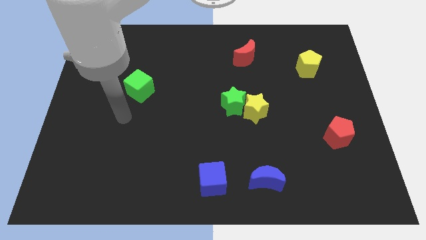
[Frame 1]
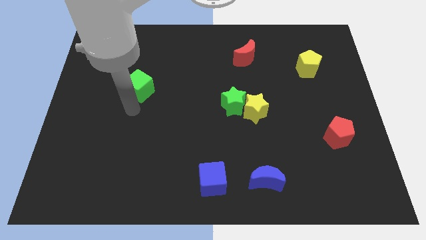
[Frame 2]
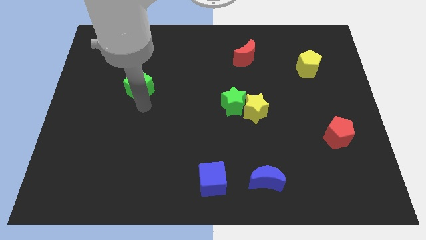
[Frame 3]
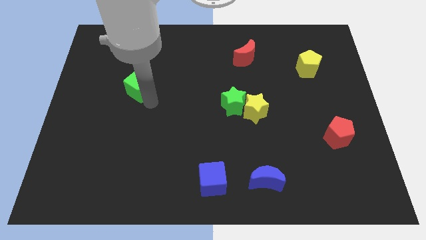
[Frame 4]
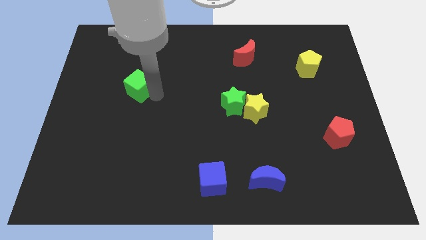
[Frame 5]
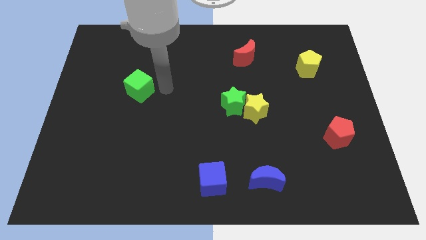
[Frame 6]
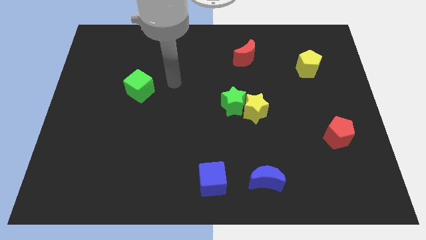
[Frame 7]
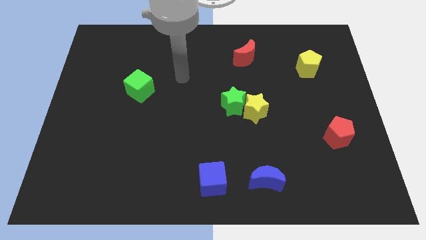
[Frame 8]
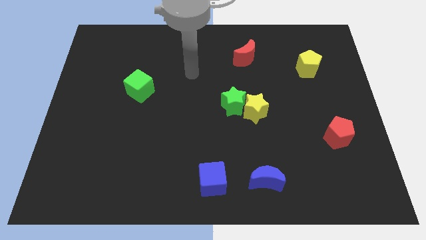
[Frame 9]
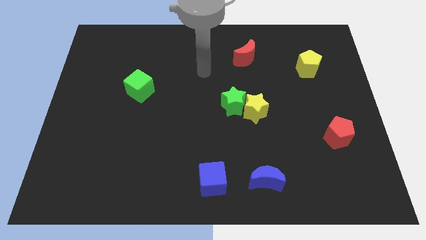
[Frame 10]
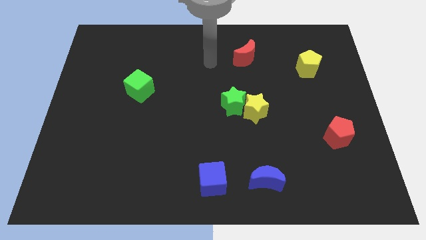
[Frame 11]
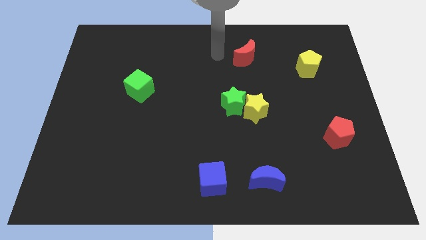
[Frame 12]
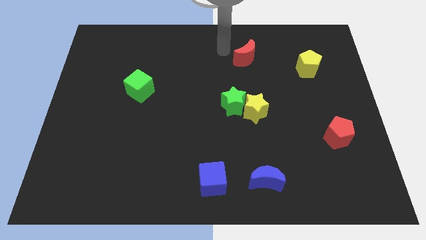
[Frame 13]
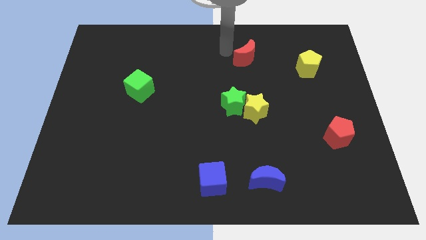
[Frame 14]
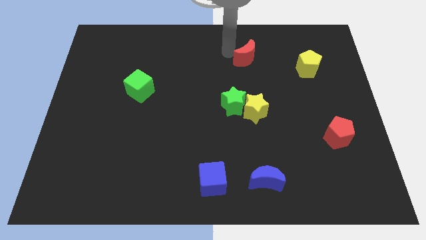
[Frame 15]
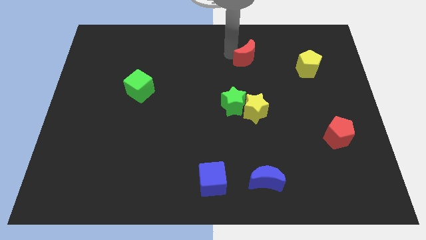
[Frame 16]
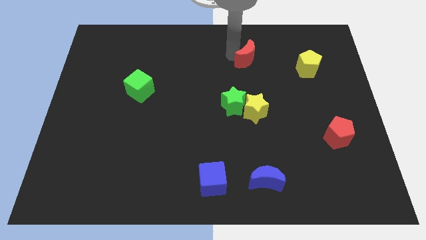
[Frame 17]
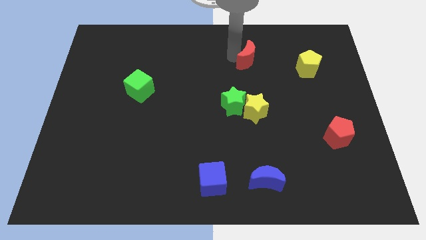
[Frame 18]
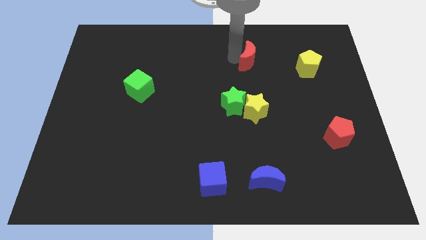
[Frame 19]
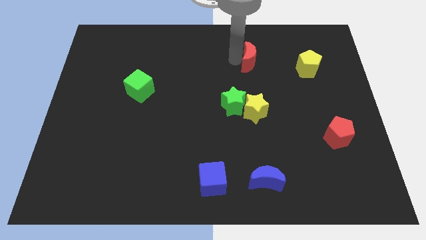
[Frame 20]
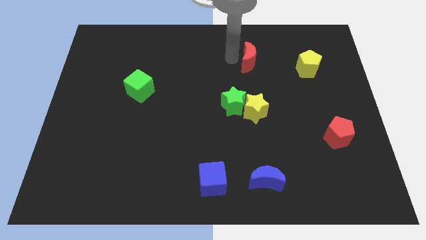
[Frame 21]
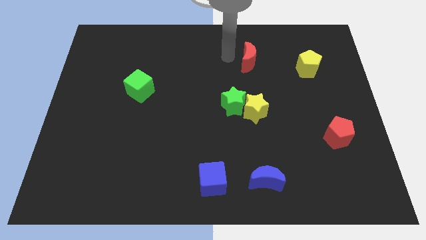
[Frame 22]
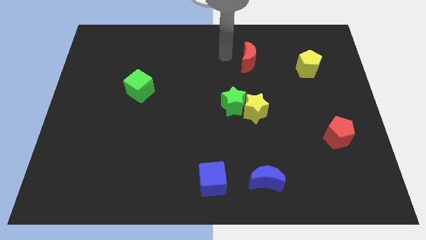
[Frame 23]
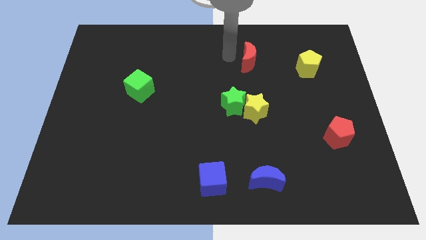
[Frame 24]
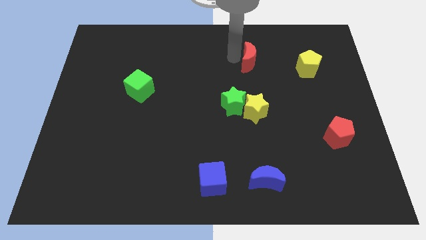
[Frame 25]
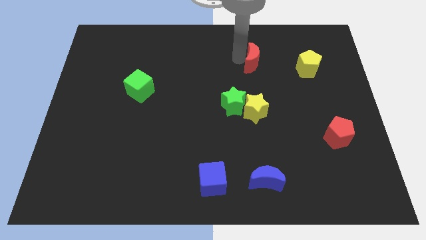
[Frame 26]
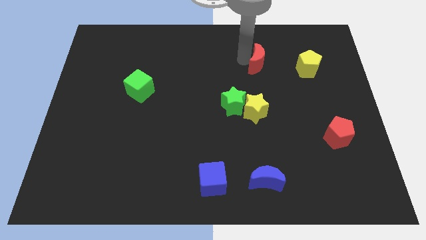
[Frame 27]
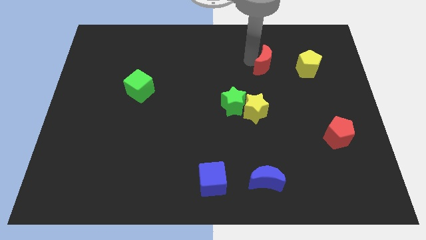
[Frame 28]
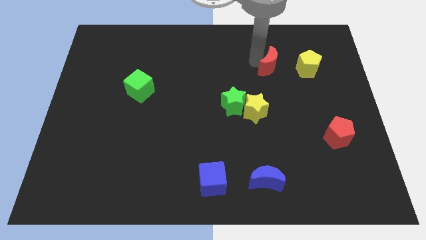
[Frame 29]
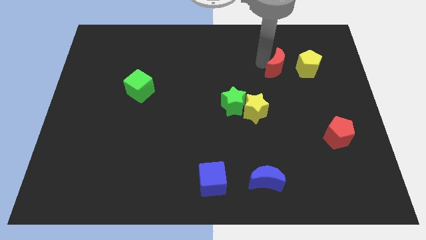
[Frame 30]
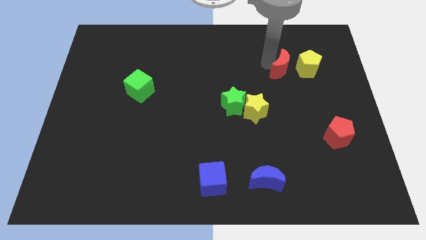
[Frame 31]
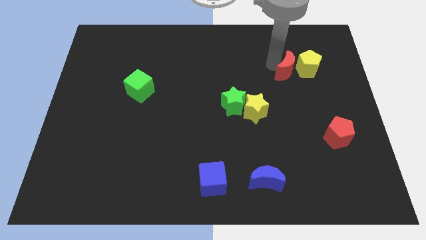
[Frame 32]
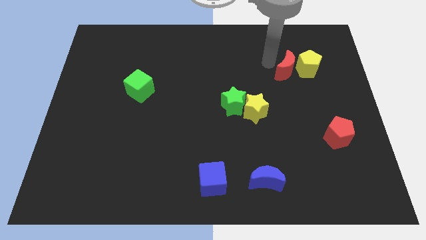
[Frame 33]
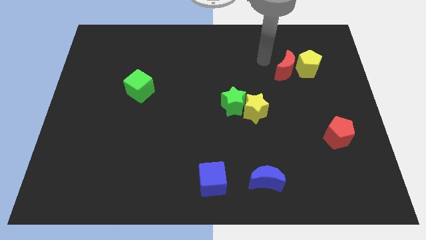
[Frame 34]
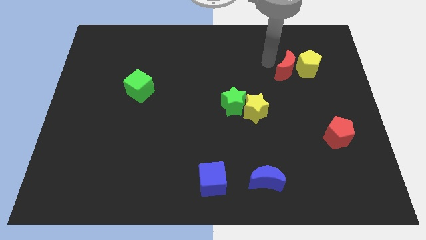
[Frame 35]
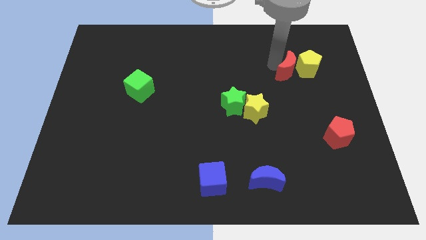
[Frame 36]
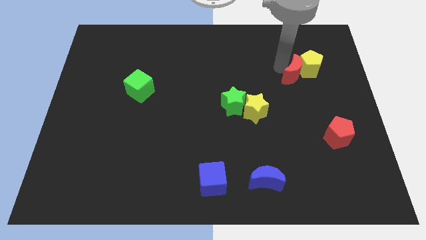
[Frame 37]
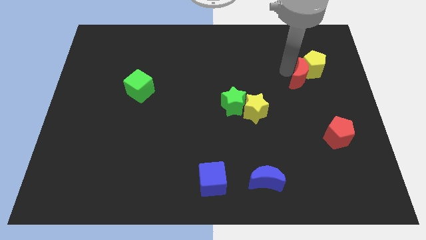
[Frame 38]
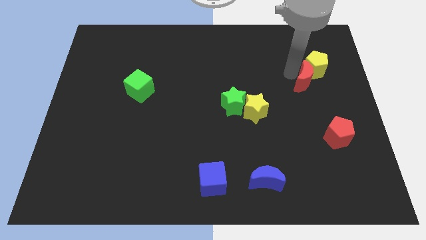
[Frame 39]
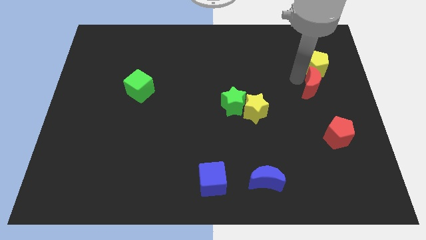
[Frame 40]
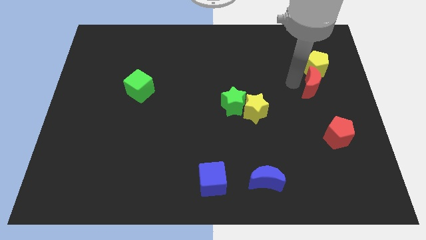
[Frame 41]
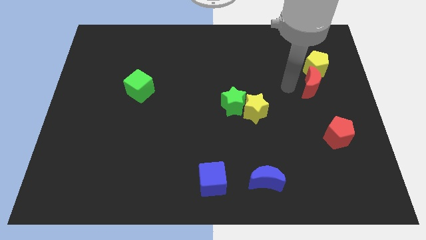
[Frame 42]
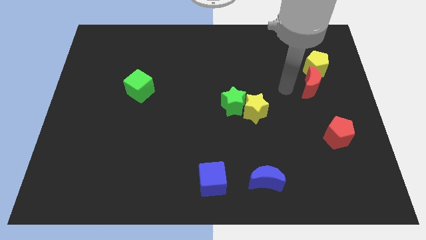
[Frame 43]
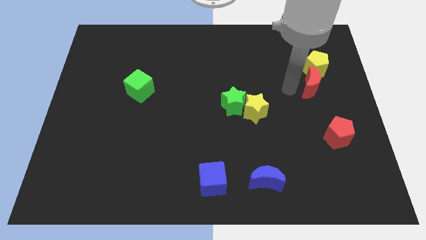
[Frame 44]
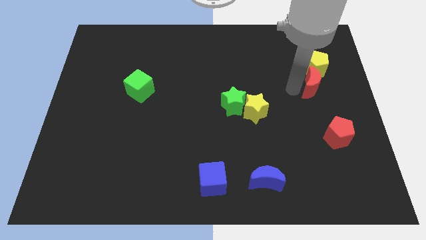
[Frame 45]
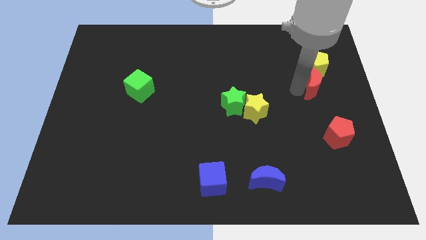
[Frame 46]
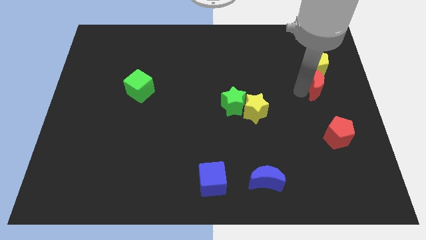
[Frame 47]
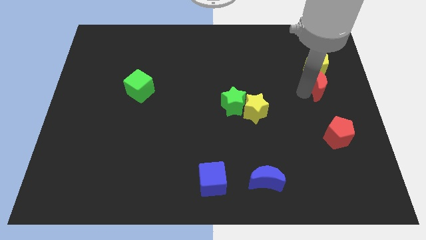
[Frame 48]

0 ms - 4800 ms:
move the red moon to the center right

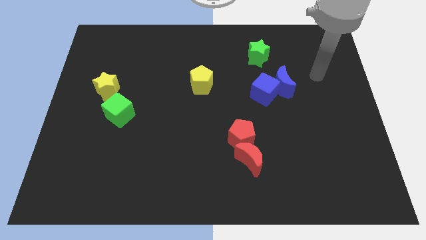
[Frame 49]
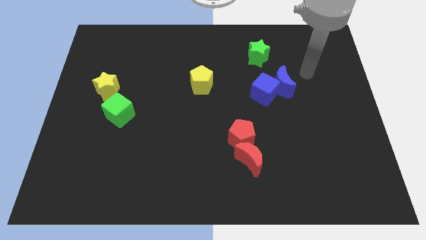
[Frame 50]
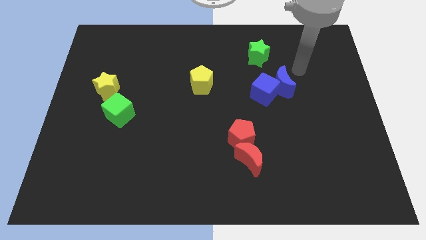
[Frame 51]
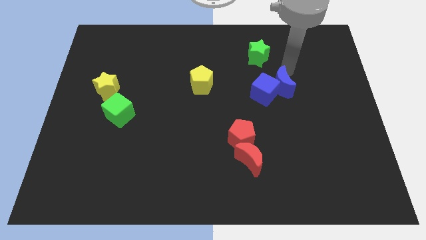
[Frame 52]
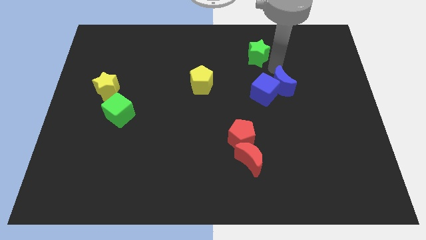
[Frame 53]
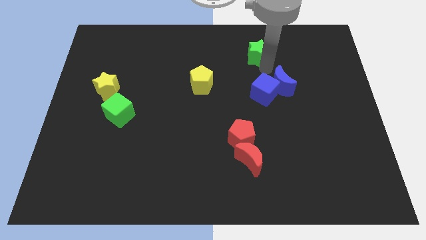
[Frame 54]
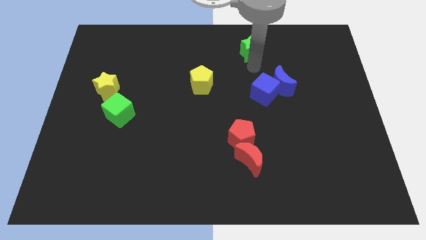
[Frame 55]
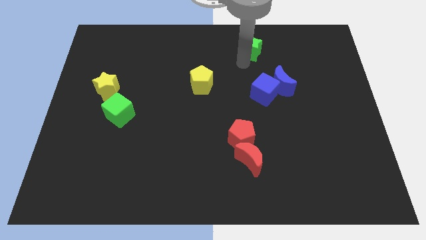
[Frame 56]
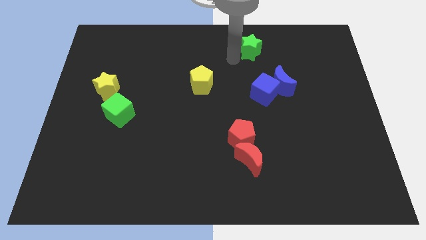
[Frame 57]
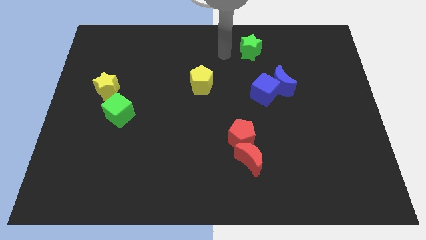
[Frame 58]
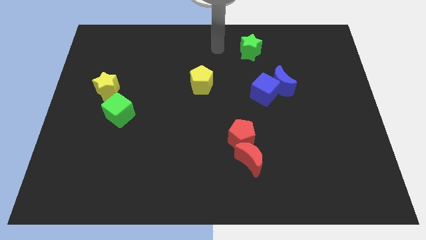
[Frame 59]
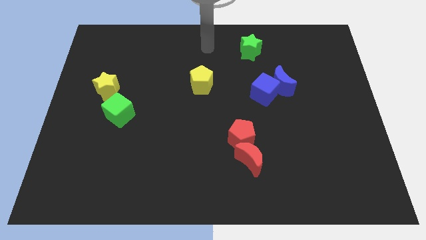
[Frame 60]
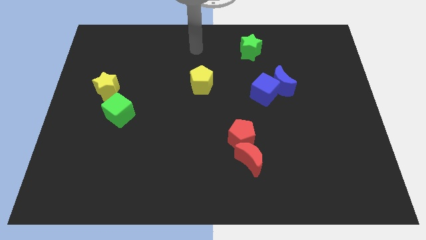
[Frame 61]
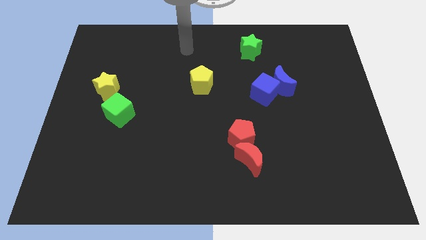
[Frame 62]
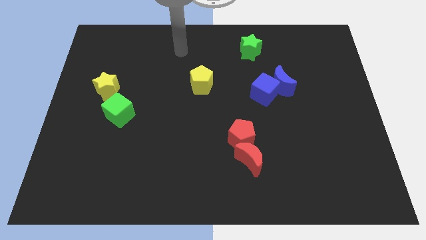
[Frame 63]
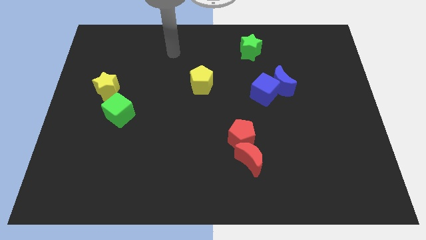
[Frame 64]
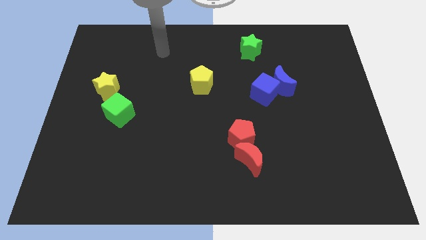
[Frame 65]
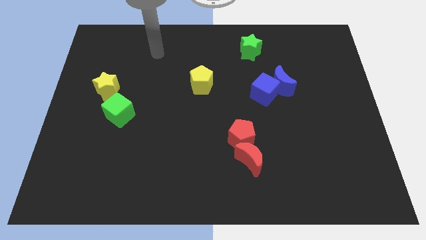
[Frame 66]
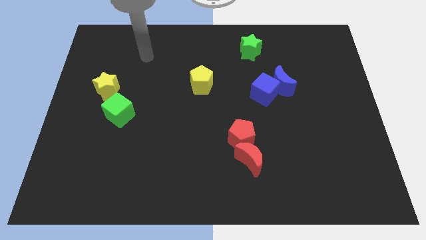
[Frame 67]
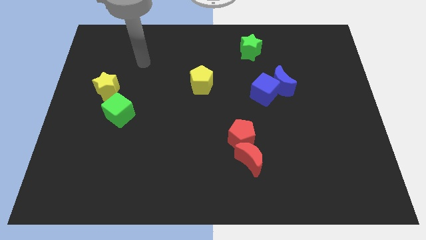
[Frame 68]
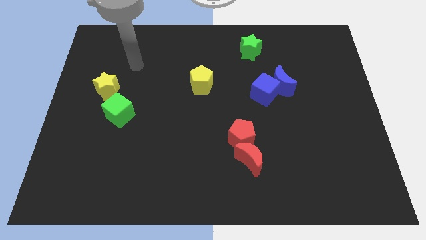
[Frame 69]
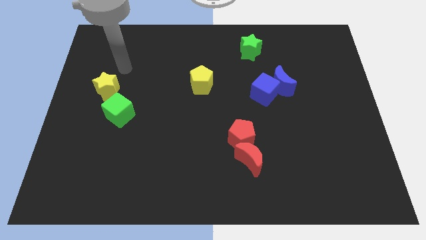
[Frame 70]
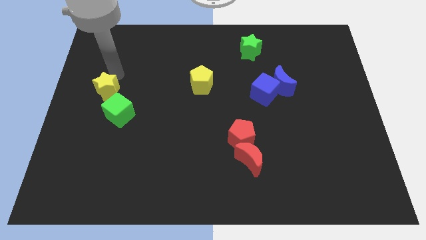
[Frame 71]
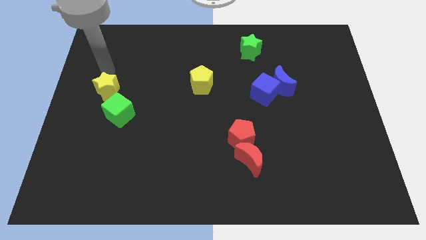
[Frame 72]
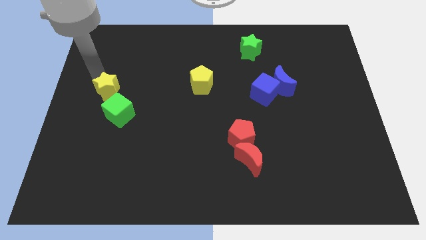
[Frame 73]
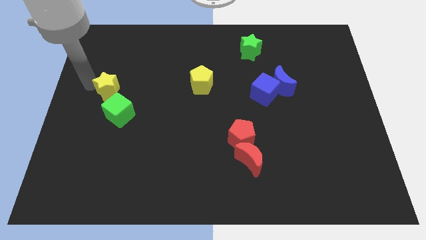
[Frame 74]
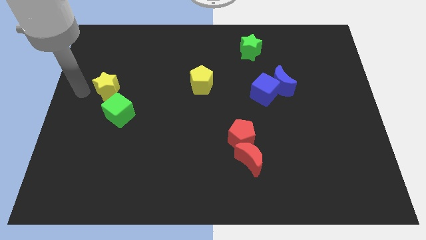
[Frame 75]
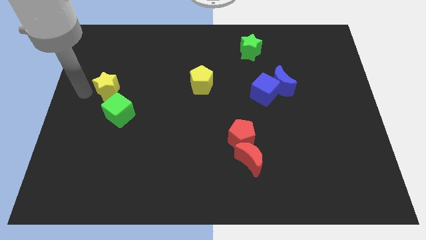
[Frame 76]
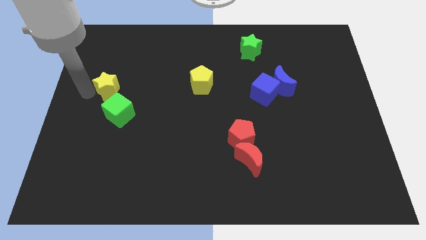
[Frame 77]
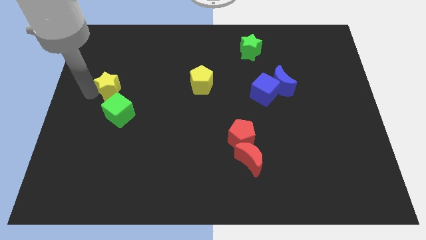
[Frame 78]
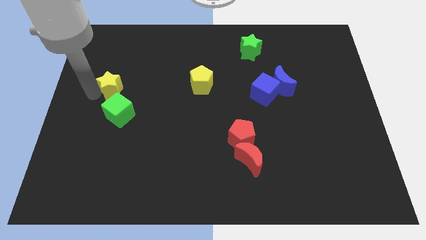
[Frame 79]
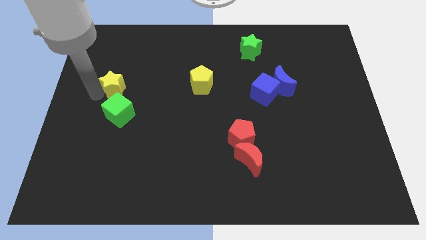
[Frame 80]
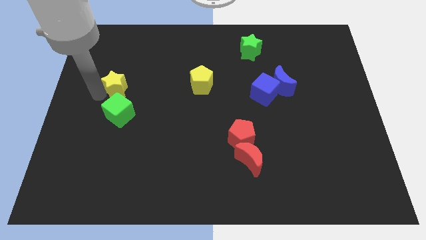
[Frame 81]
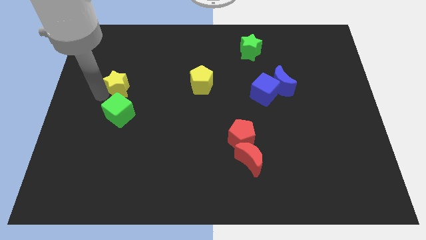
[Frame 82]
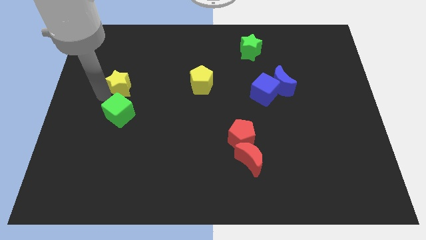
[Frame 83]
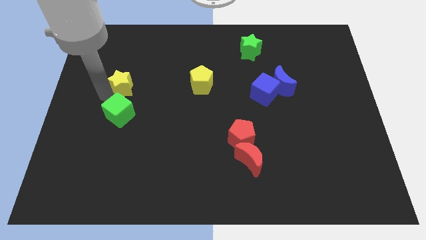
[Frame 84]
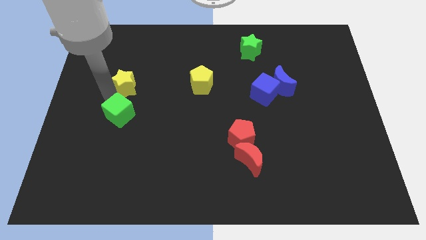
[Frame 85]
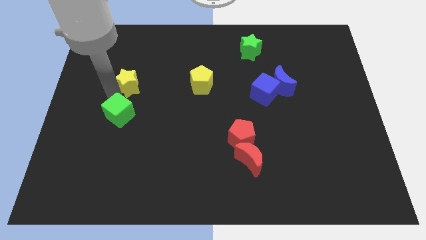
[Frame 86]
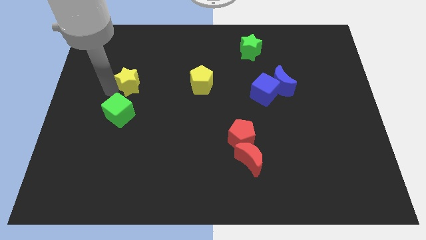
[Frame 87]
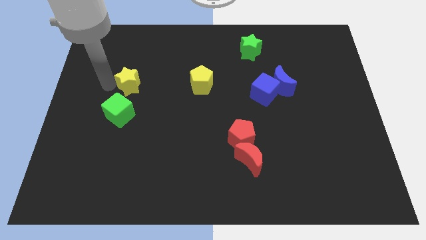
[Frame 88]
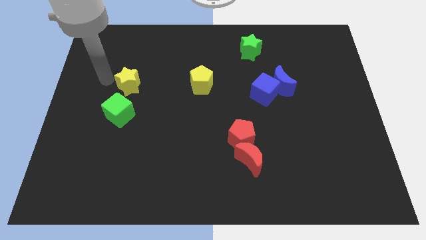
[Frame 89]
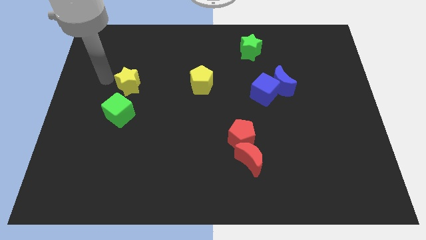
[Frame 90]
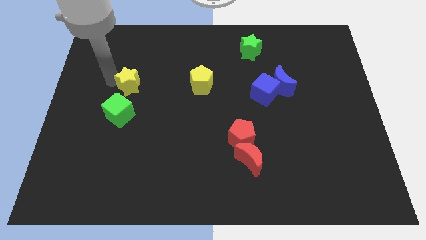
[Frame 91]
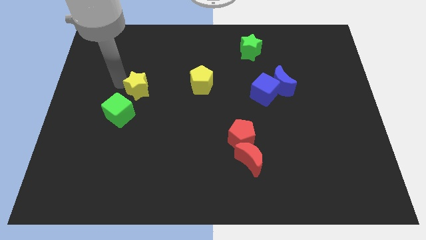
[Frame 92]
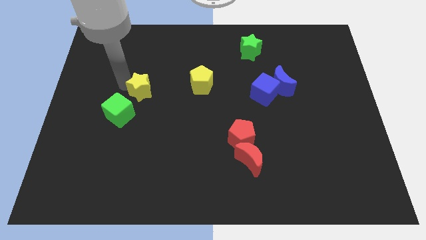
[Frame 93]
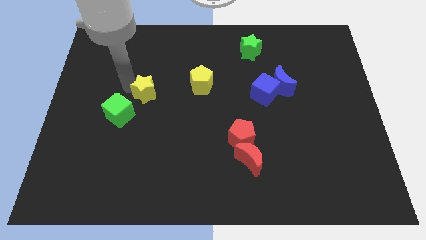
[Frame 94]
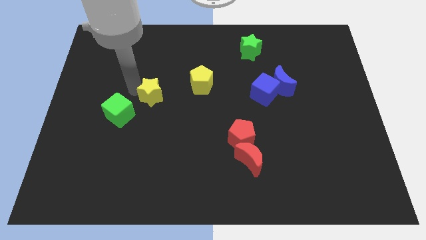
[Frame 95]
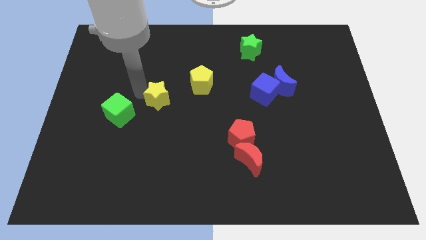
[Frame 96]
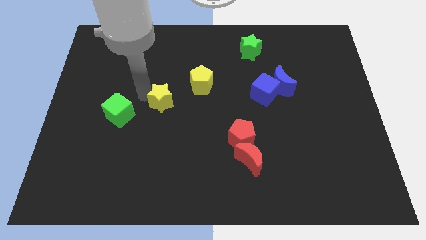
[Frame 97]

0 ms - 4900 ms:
push the yellow star to the middle of the board
